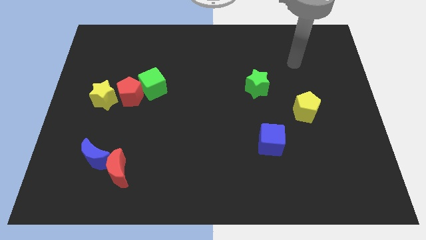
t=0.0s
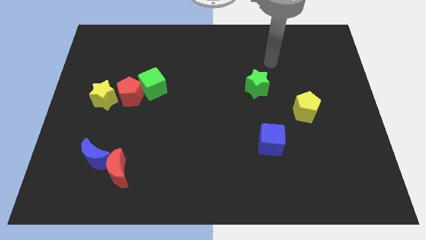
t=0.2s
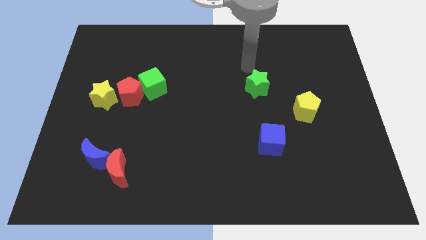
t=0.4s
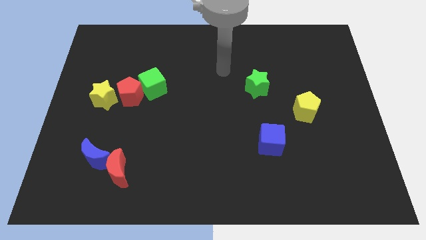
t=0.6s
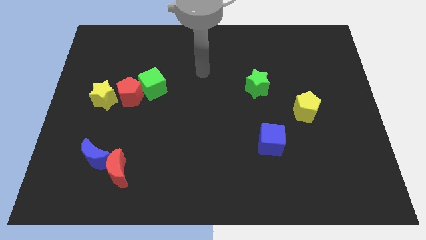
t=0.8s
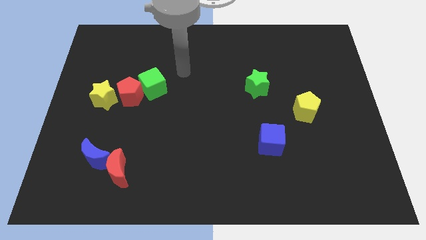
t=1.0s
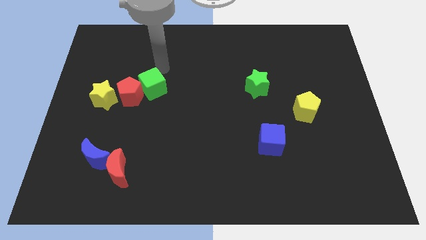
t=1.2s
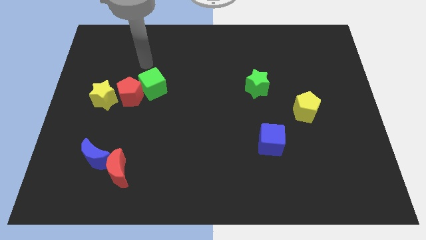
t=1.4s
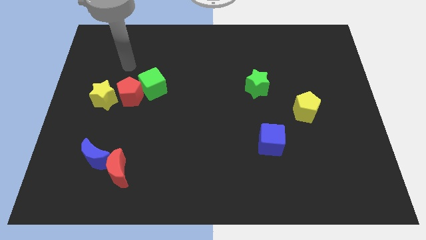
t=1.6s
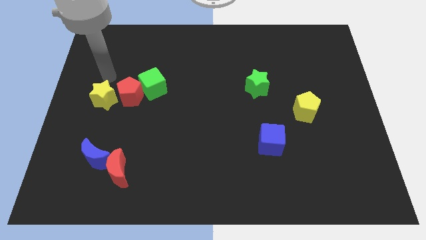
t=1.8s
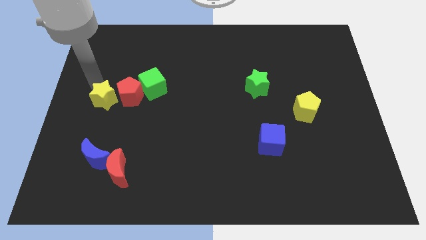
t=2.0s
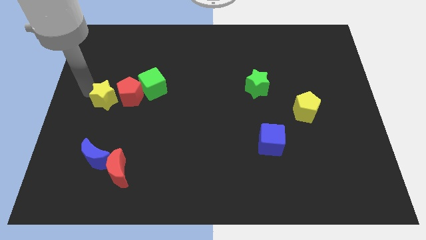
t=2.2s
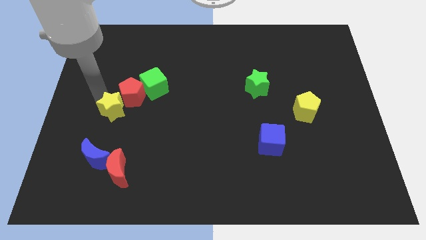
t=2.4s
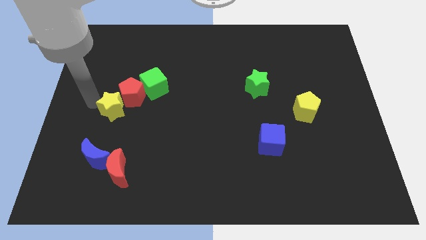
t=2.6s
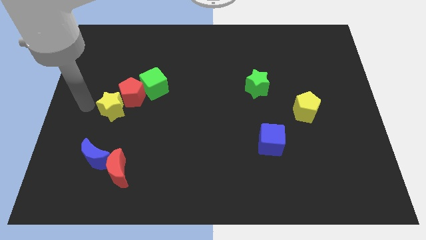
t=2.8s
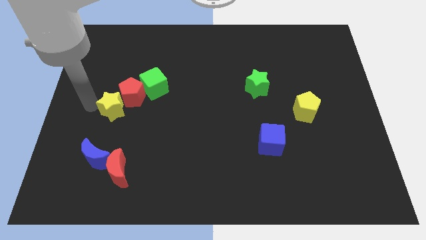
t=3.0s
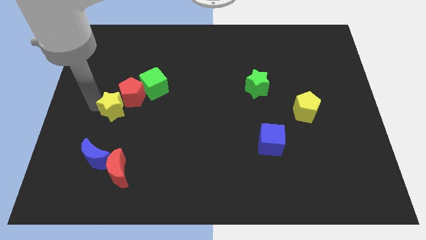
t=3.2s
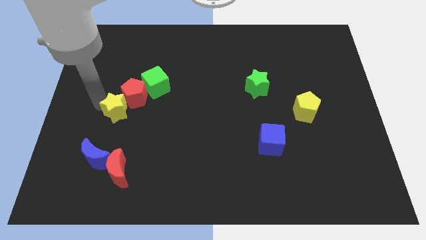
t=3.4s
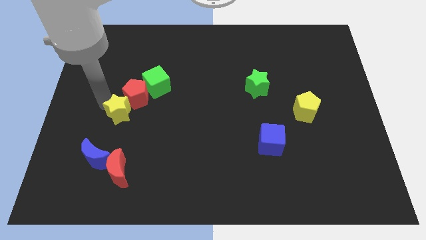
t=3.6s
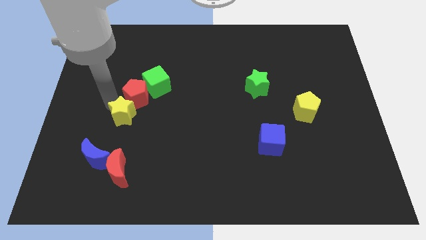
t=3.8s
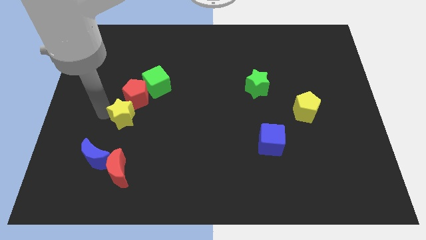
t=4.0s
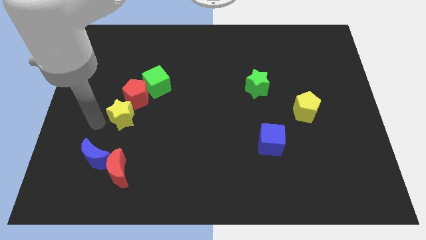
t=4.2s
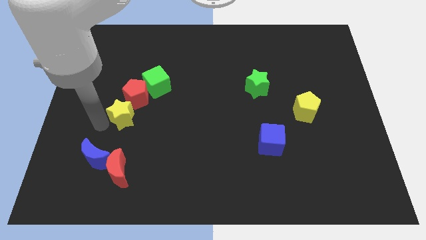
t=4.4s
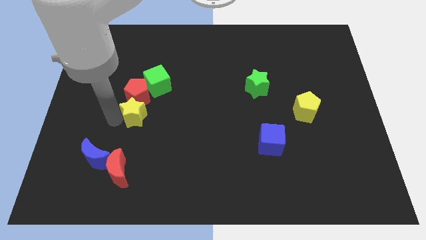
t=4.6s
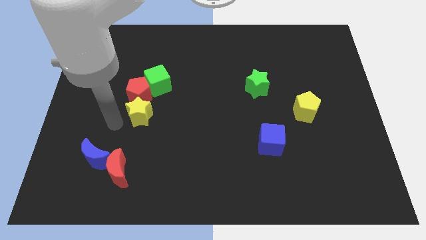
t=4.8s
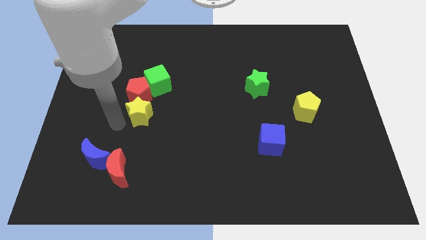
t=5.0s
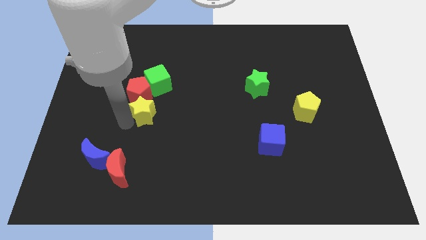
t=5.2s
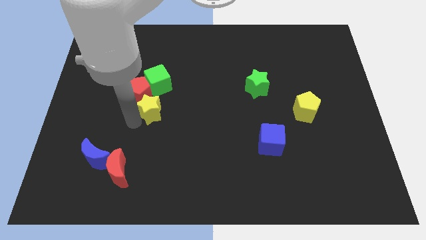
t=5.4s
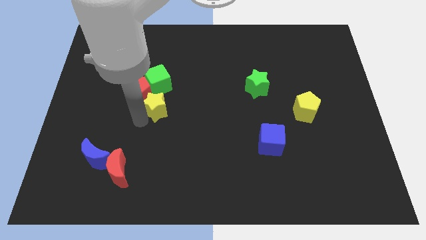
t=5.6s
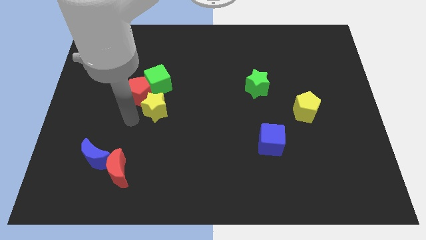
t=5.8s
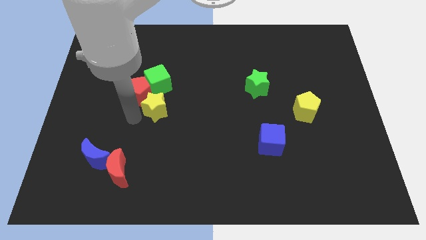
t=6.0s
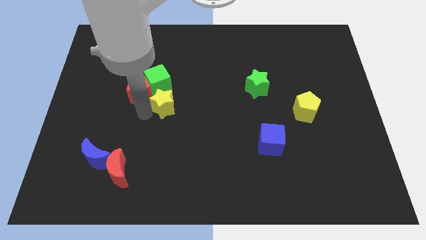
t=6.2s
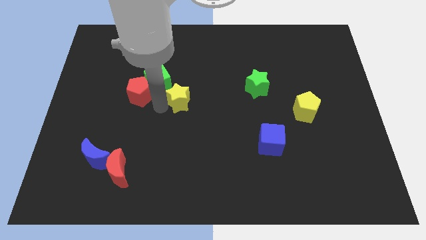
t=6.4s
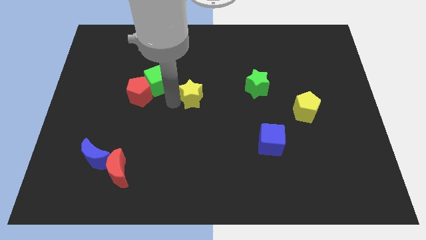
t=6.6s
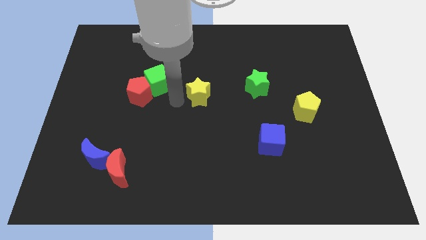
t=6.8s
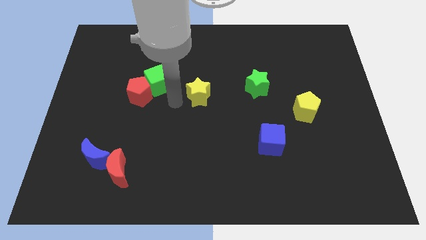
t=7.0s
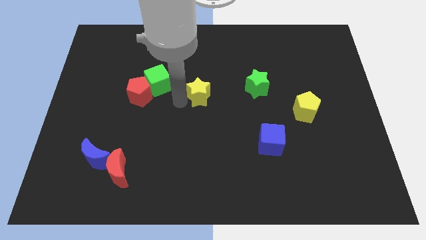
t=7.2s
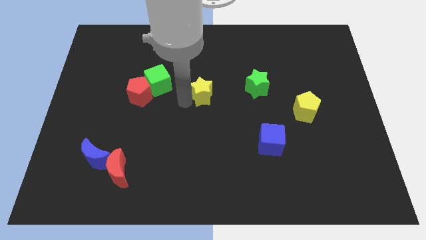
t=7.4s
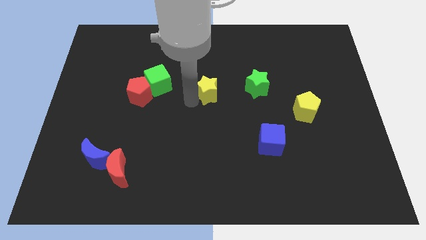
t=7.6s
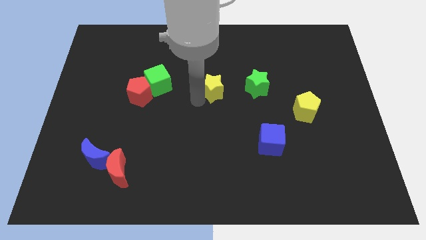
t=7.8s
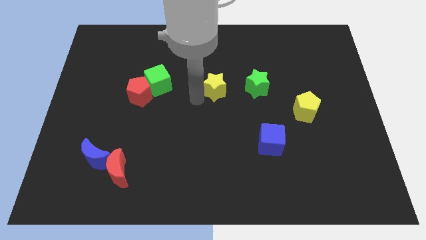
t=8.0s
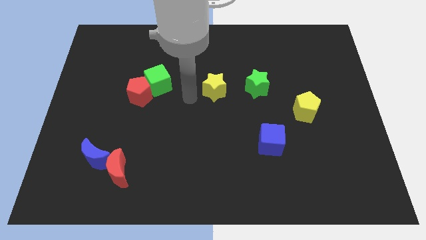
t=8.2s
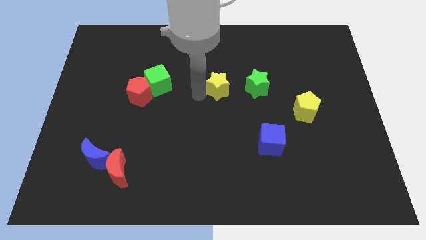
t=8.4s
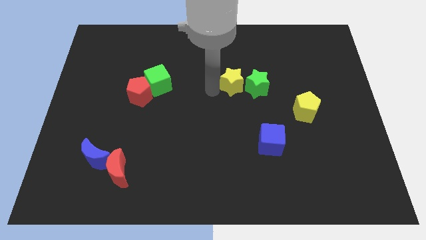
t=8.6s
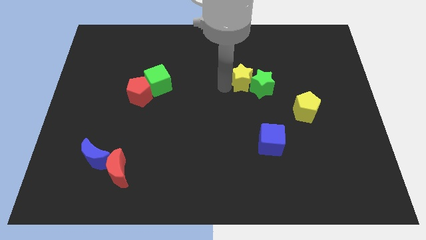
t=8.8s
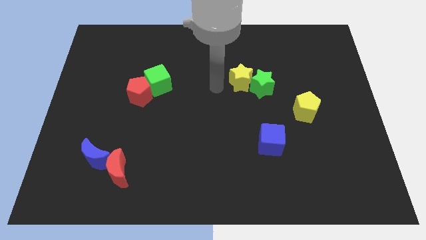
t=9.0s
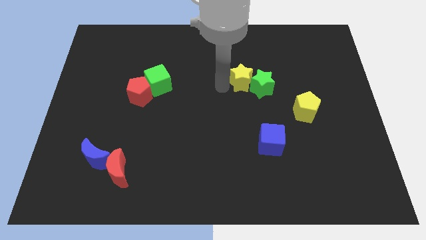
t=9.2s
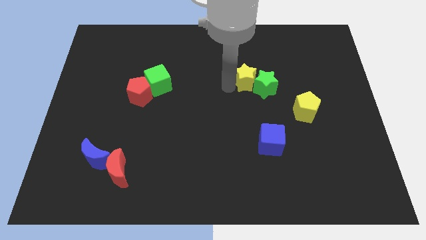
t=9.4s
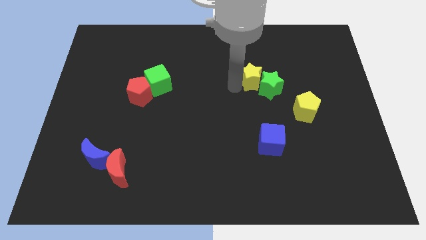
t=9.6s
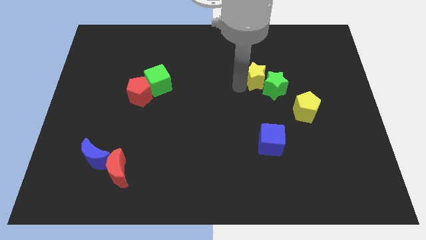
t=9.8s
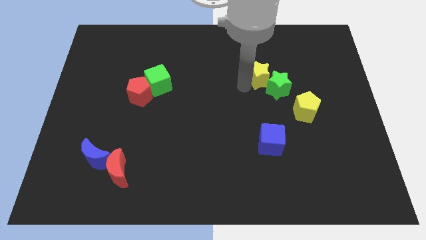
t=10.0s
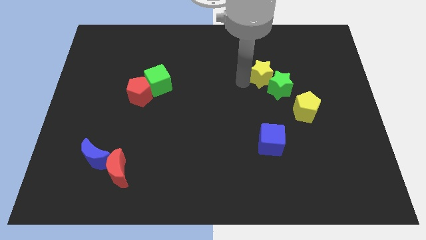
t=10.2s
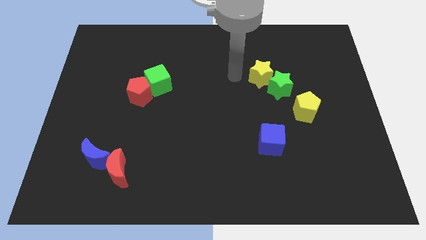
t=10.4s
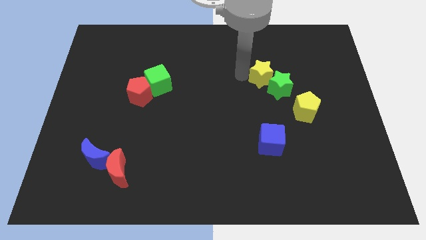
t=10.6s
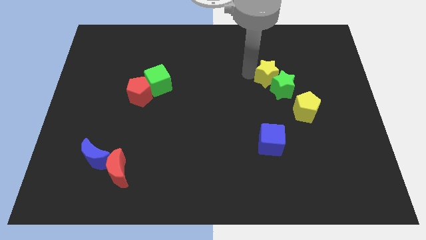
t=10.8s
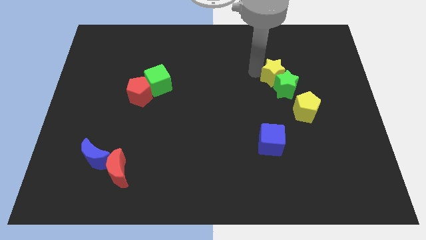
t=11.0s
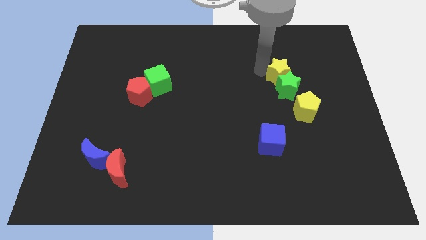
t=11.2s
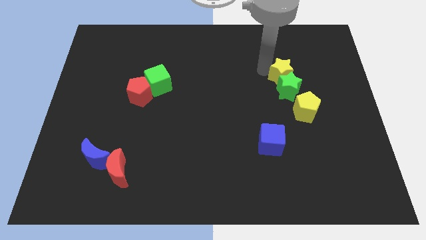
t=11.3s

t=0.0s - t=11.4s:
push the yellow star to the top of the yellow pentagon

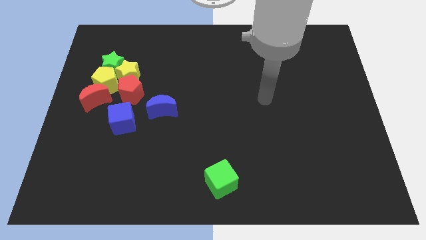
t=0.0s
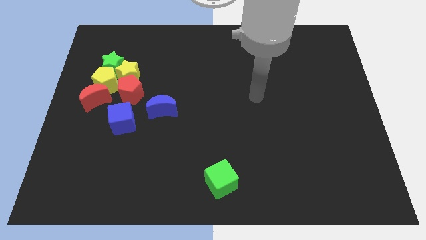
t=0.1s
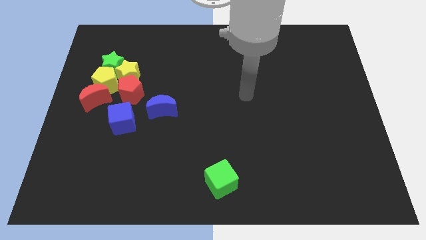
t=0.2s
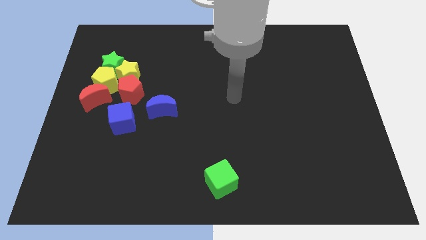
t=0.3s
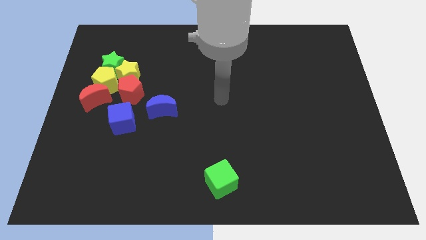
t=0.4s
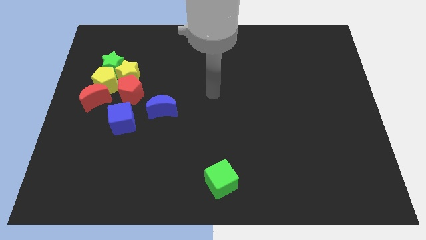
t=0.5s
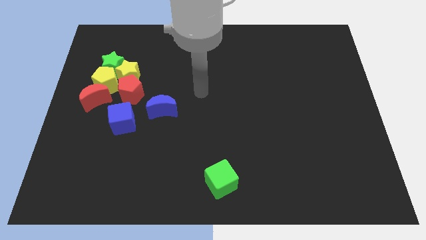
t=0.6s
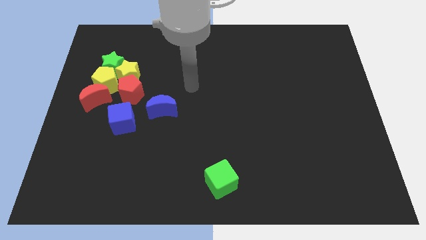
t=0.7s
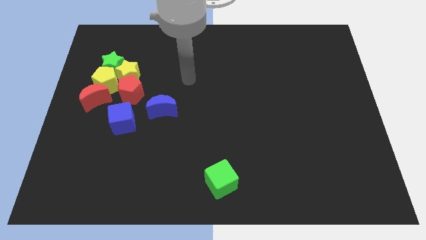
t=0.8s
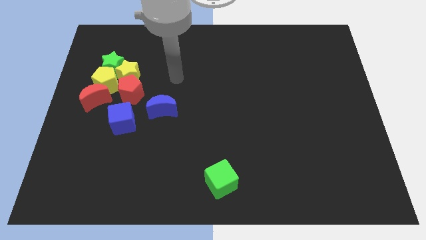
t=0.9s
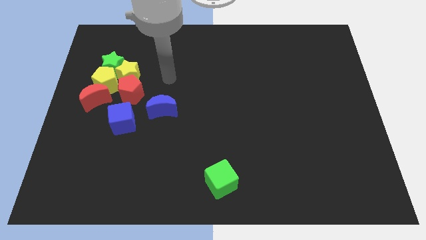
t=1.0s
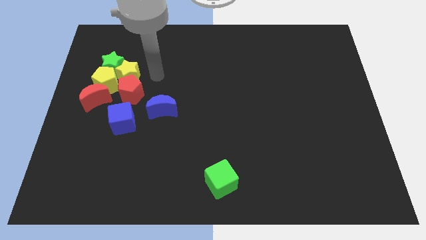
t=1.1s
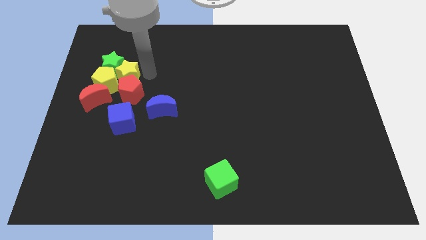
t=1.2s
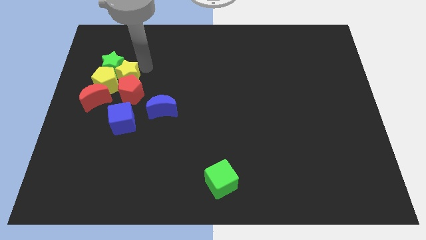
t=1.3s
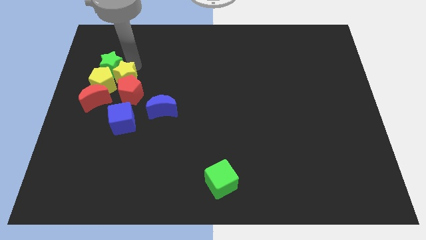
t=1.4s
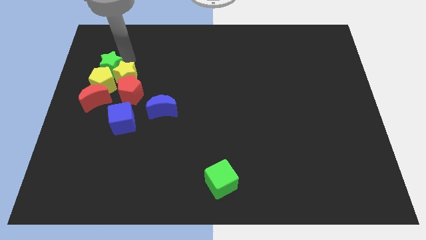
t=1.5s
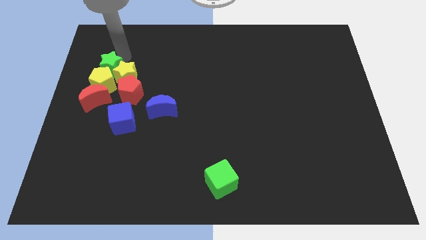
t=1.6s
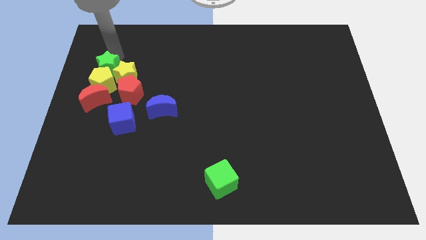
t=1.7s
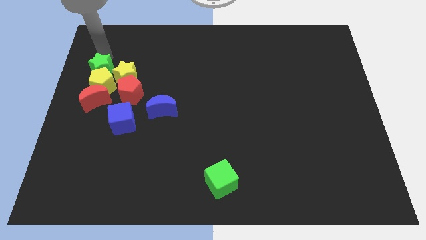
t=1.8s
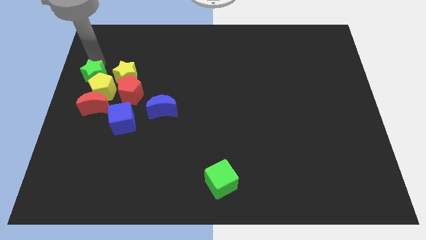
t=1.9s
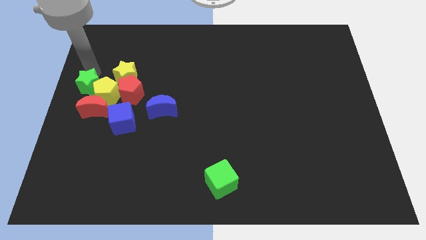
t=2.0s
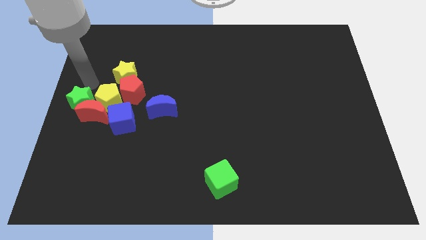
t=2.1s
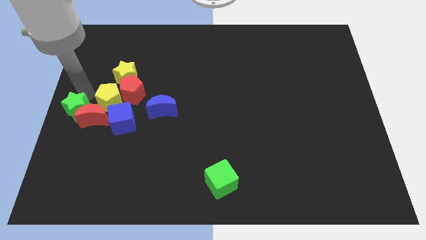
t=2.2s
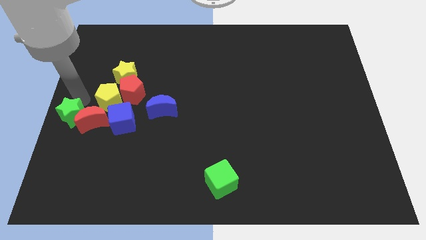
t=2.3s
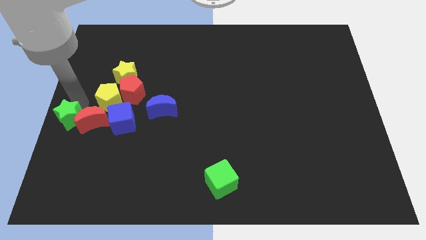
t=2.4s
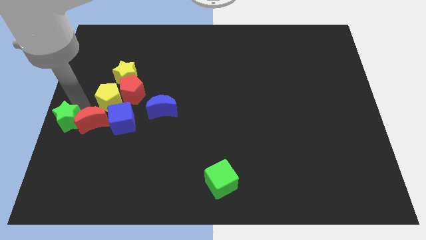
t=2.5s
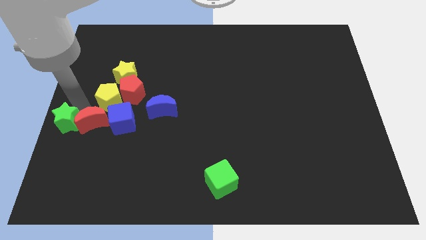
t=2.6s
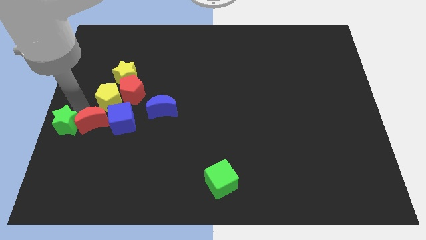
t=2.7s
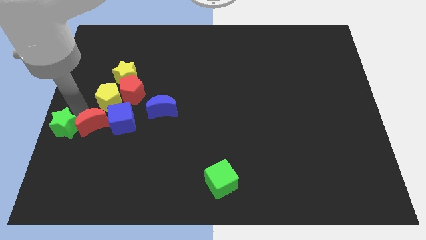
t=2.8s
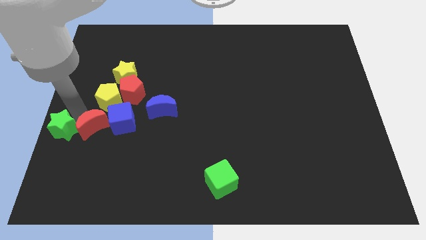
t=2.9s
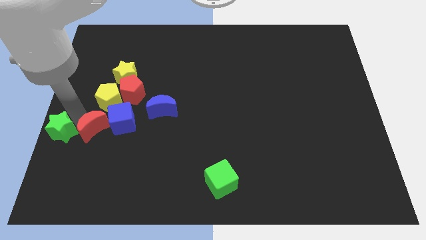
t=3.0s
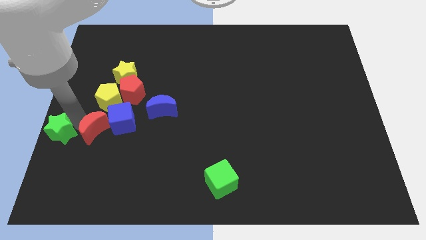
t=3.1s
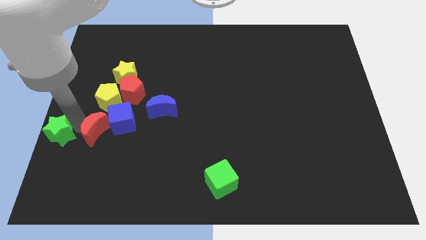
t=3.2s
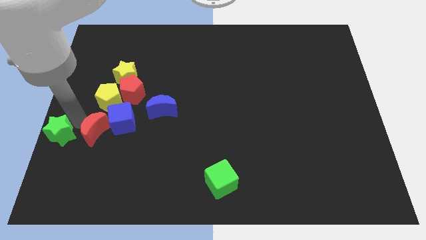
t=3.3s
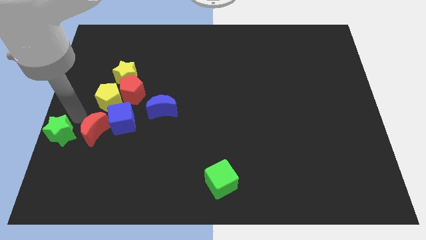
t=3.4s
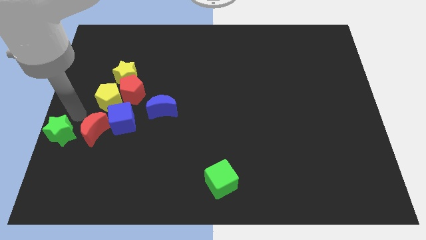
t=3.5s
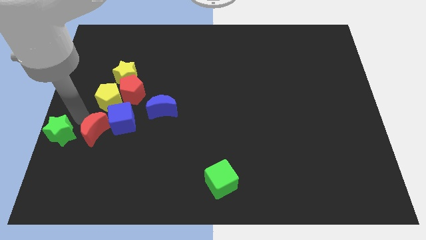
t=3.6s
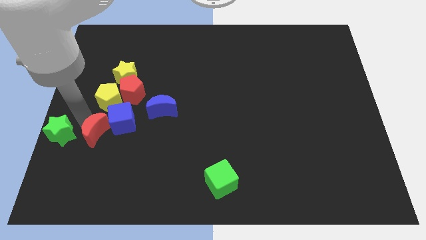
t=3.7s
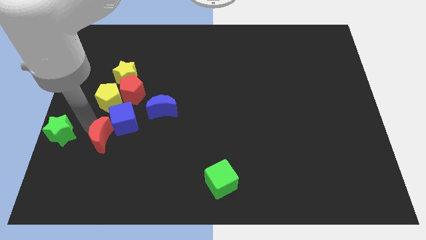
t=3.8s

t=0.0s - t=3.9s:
put the red moon below the blue cube
